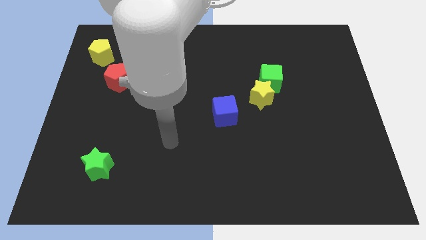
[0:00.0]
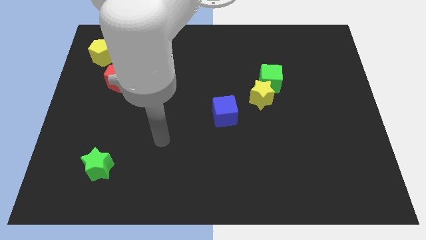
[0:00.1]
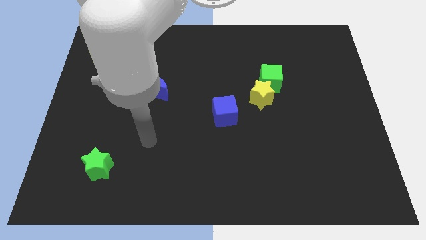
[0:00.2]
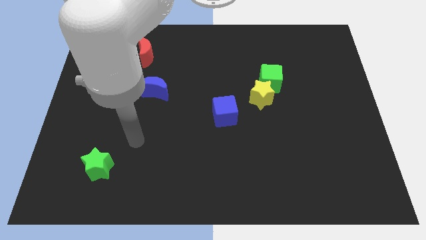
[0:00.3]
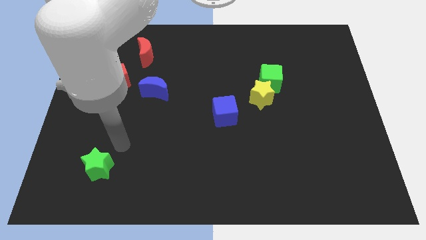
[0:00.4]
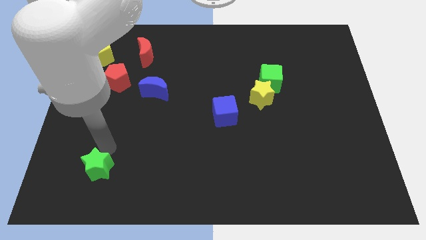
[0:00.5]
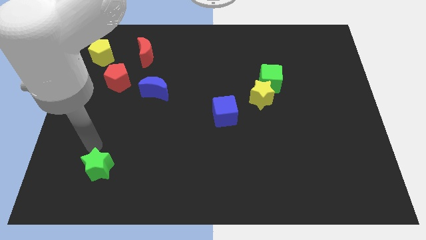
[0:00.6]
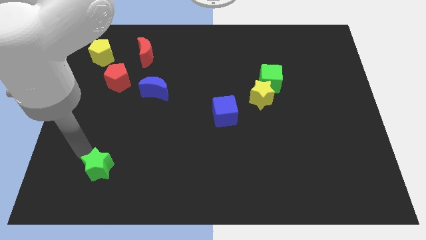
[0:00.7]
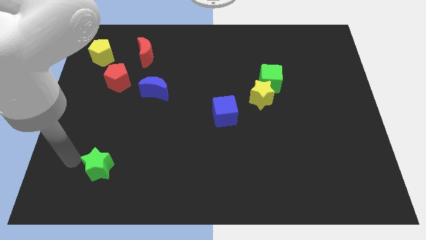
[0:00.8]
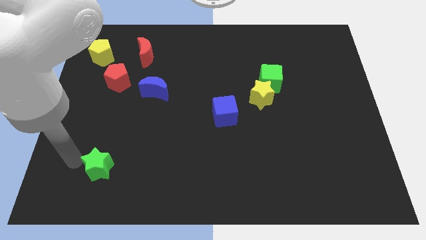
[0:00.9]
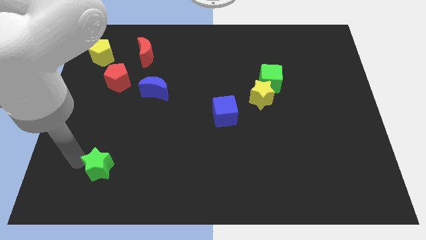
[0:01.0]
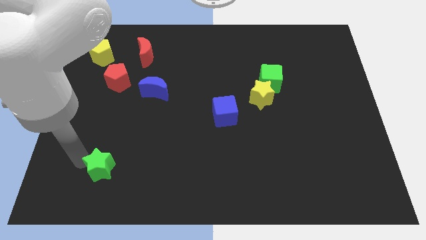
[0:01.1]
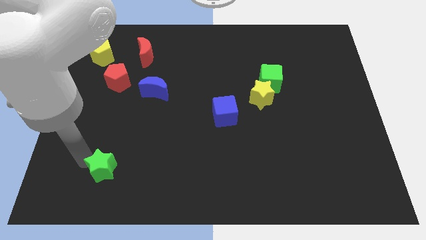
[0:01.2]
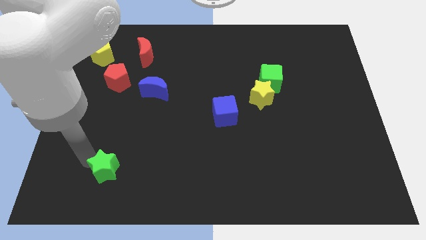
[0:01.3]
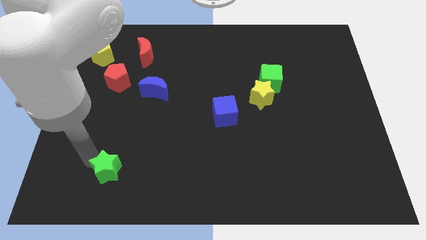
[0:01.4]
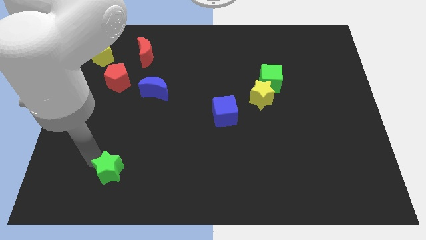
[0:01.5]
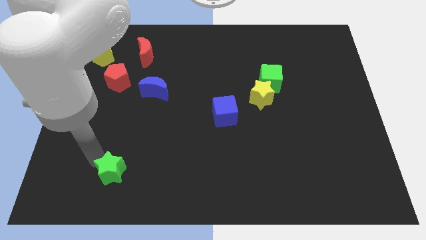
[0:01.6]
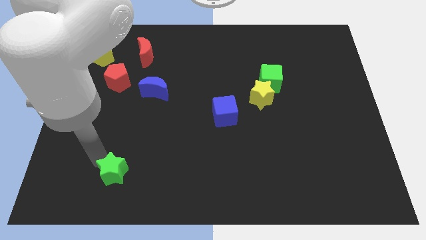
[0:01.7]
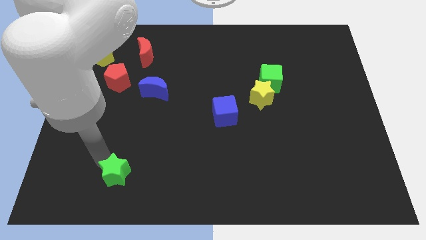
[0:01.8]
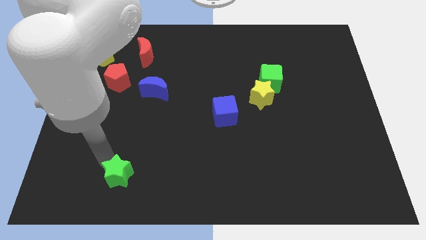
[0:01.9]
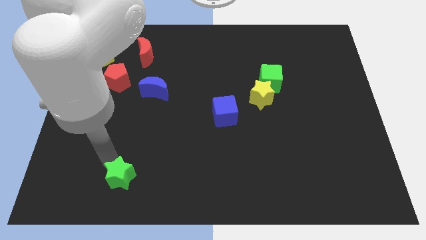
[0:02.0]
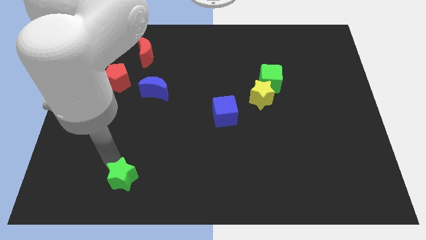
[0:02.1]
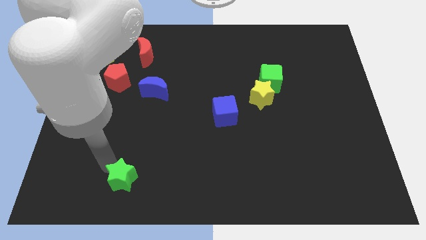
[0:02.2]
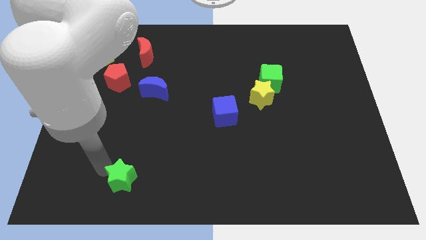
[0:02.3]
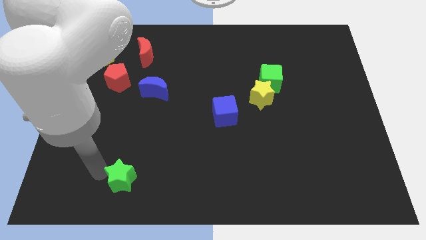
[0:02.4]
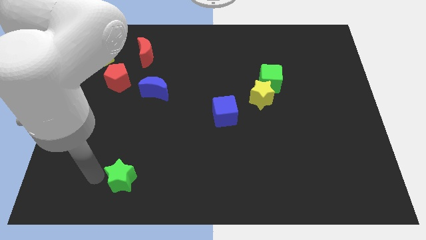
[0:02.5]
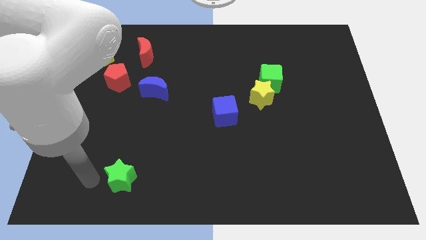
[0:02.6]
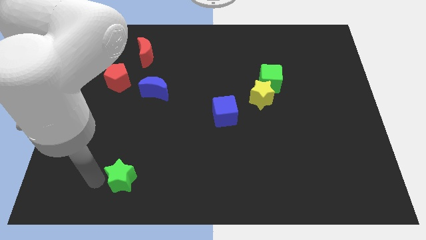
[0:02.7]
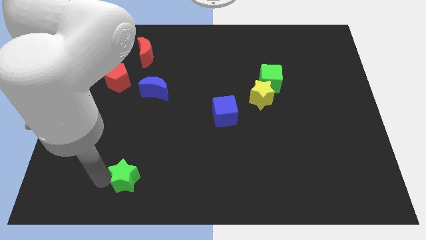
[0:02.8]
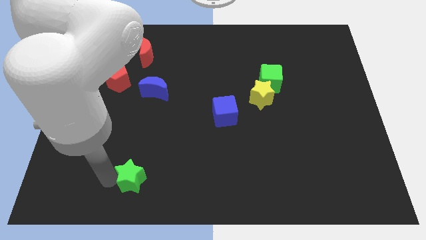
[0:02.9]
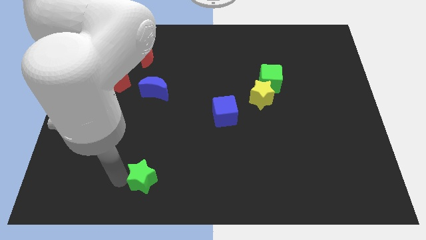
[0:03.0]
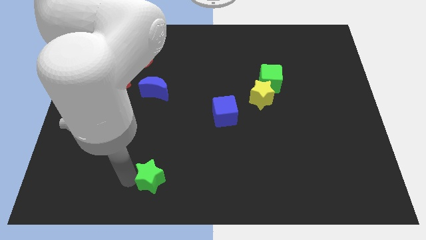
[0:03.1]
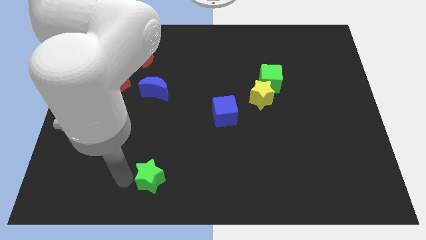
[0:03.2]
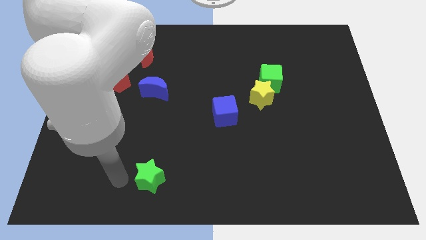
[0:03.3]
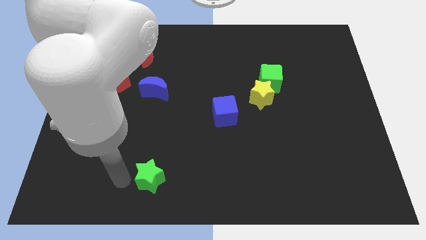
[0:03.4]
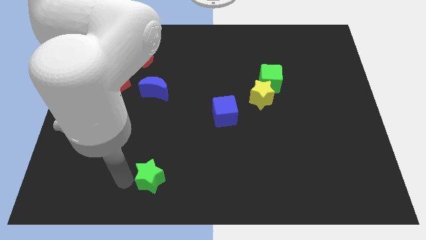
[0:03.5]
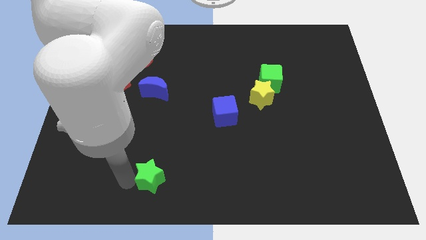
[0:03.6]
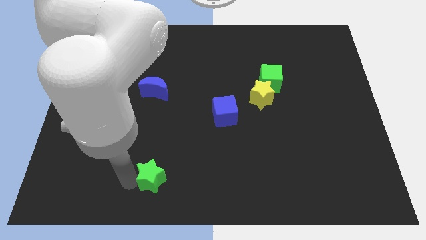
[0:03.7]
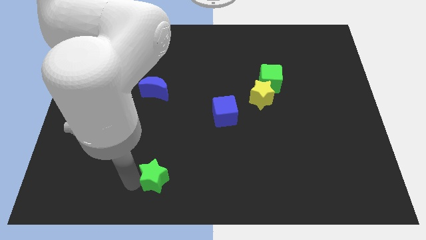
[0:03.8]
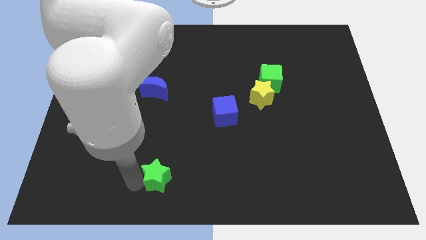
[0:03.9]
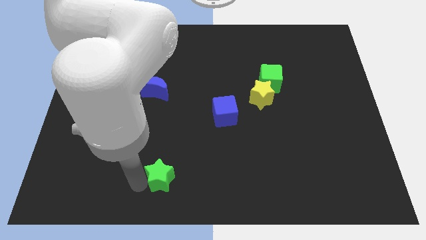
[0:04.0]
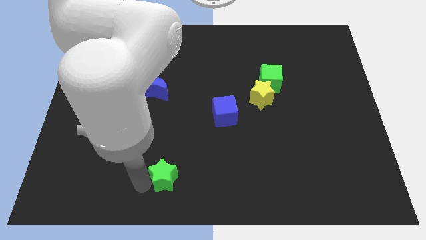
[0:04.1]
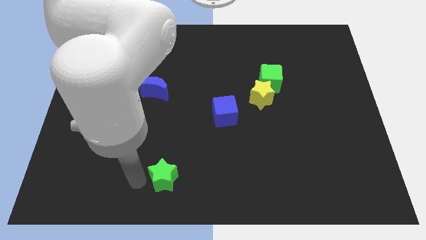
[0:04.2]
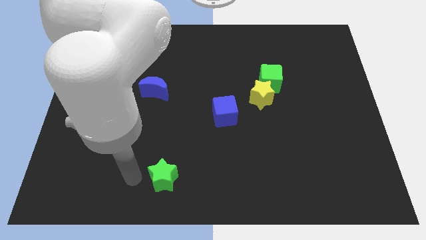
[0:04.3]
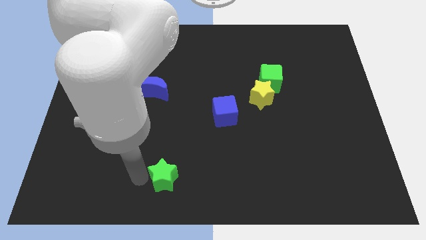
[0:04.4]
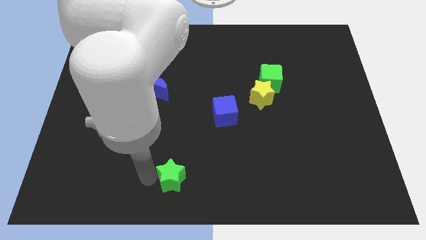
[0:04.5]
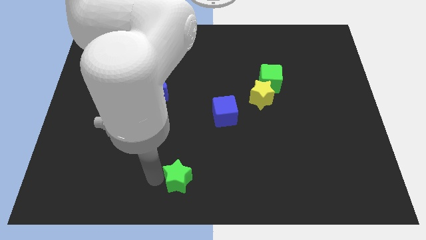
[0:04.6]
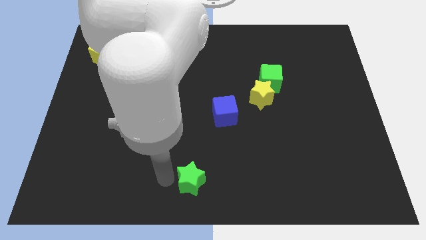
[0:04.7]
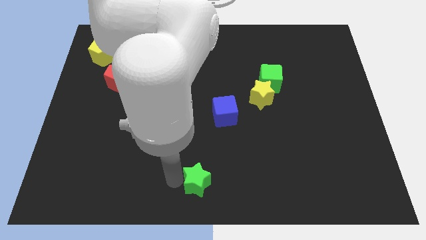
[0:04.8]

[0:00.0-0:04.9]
slide the green star right

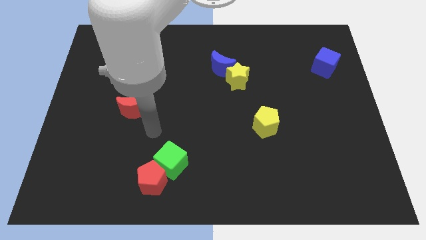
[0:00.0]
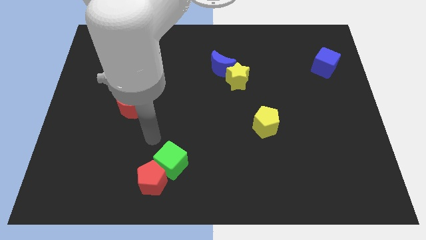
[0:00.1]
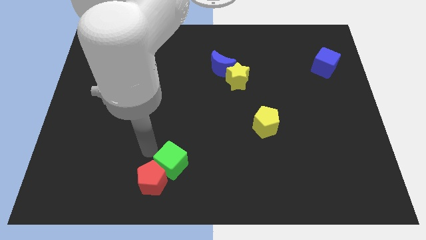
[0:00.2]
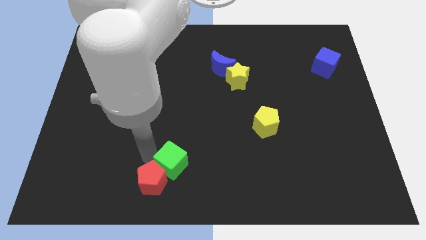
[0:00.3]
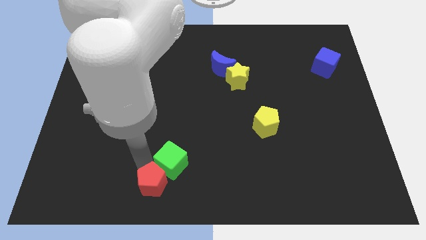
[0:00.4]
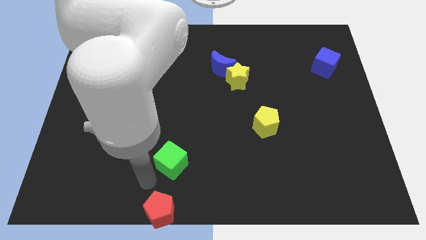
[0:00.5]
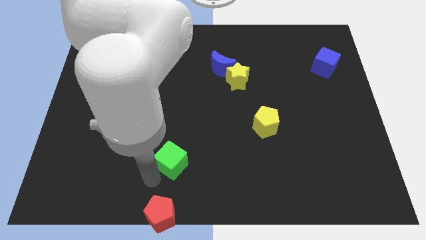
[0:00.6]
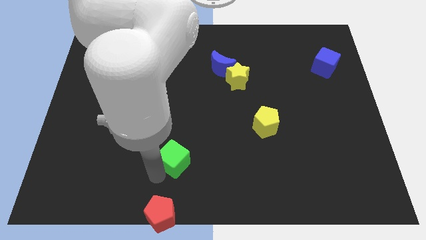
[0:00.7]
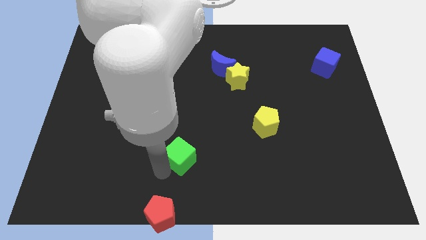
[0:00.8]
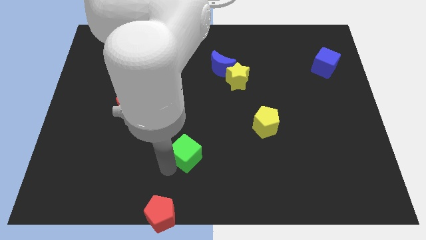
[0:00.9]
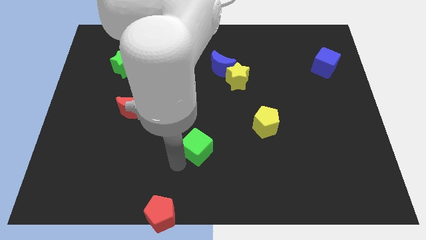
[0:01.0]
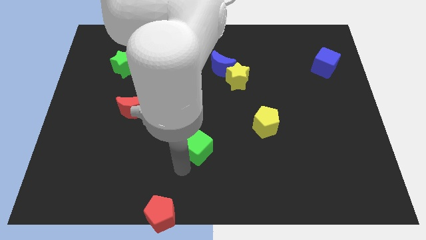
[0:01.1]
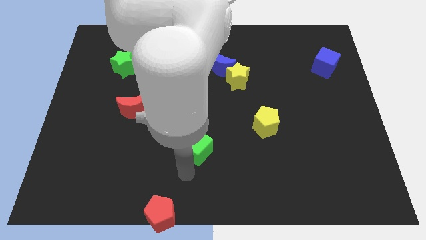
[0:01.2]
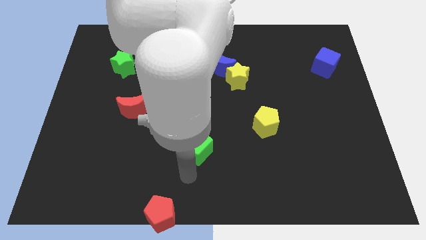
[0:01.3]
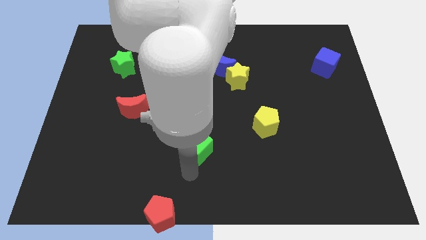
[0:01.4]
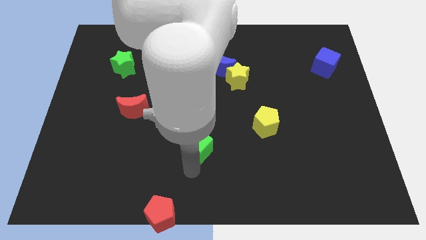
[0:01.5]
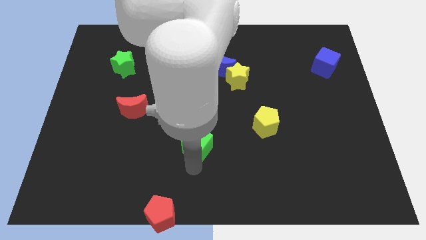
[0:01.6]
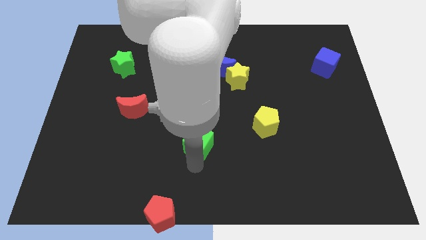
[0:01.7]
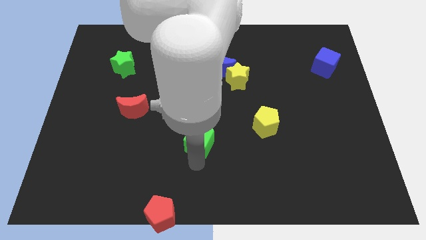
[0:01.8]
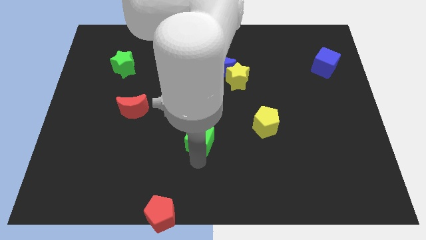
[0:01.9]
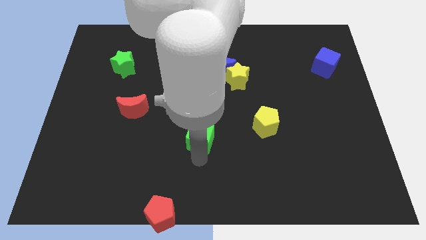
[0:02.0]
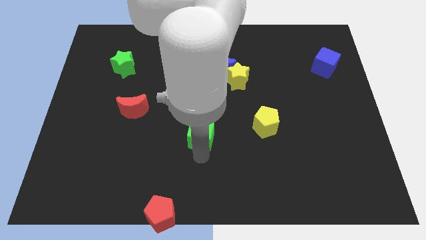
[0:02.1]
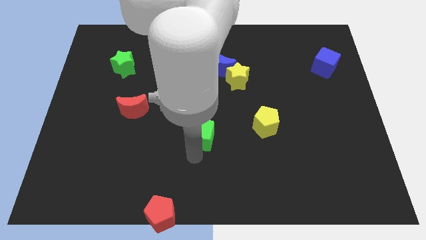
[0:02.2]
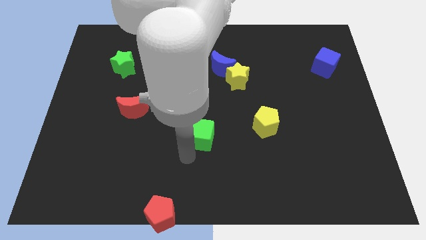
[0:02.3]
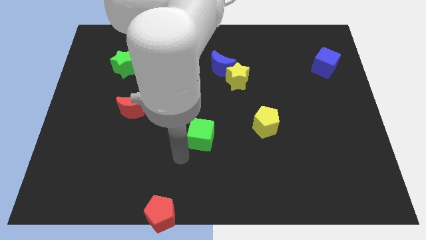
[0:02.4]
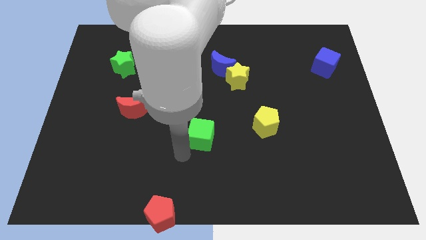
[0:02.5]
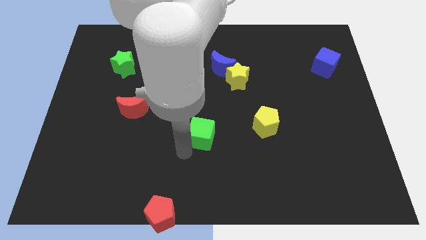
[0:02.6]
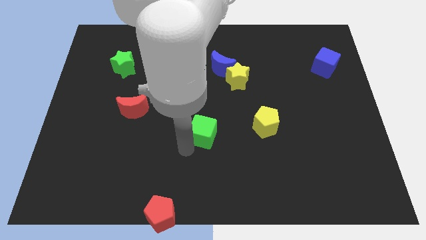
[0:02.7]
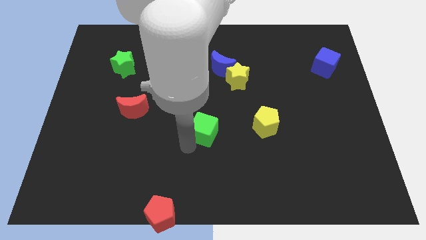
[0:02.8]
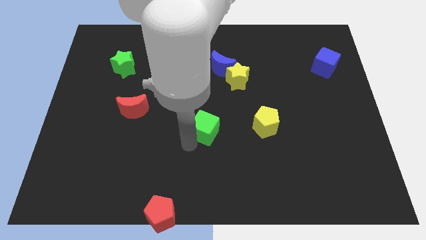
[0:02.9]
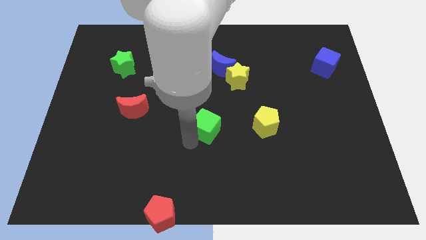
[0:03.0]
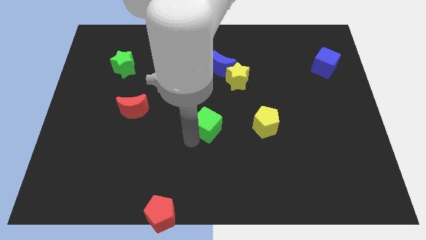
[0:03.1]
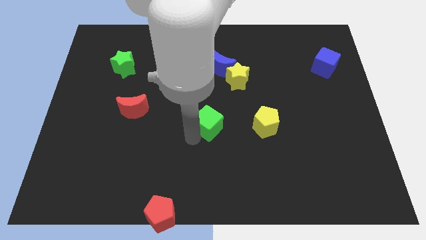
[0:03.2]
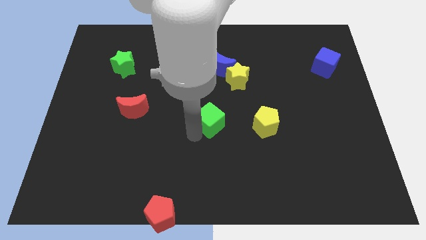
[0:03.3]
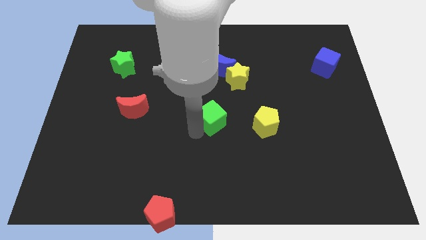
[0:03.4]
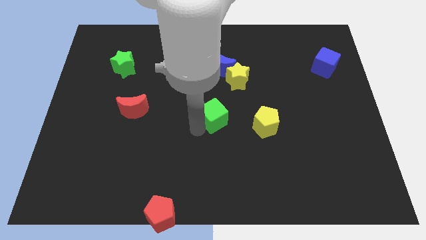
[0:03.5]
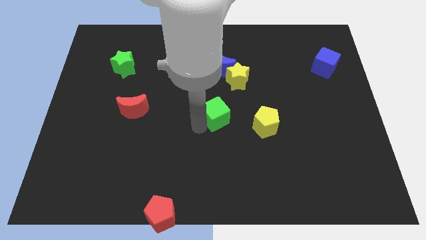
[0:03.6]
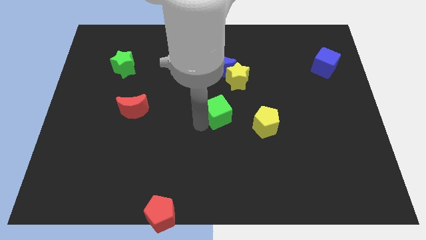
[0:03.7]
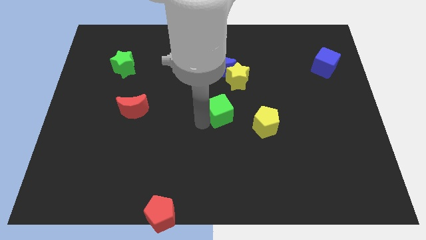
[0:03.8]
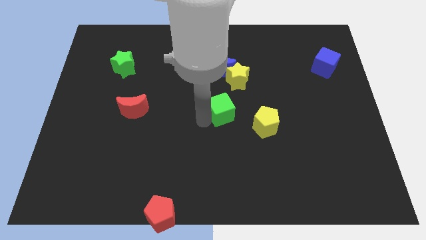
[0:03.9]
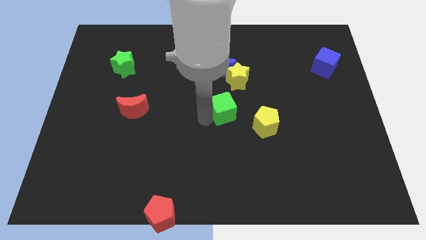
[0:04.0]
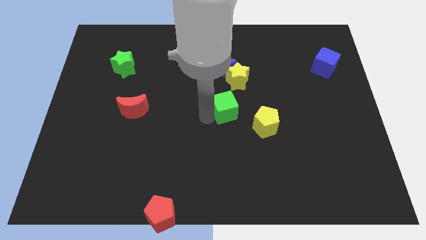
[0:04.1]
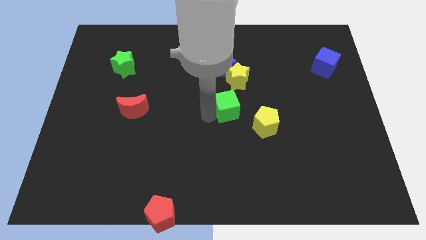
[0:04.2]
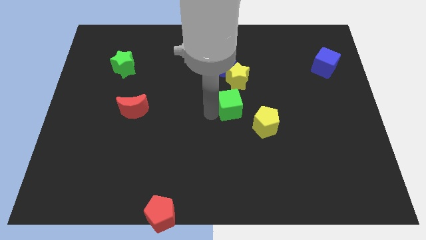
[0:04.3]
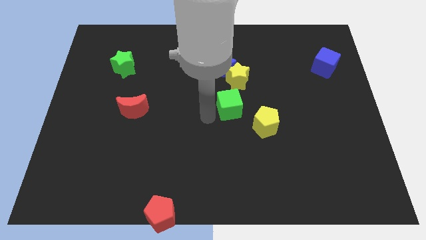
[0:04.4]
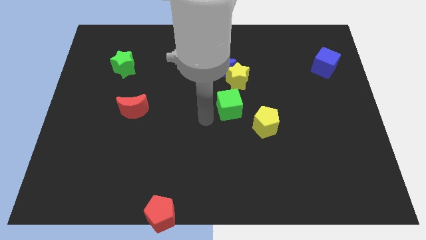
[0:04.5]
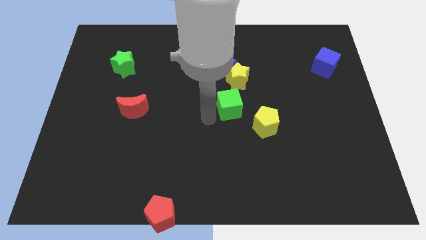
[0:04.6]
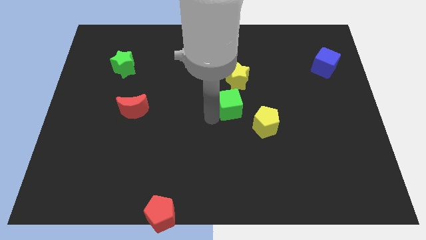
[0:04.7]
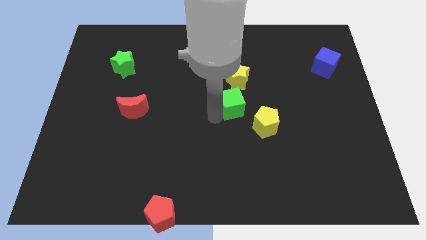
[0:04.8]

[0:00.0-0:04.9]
slide the green cube diagonally up and to the right
